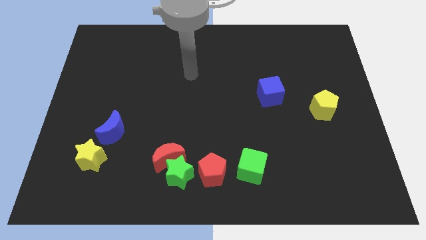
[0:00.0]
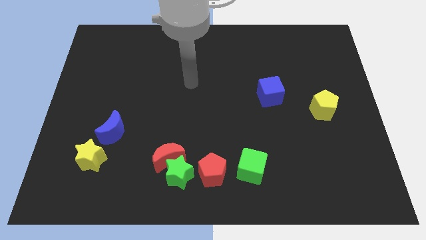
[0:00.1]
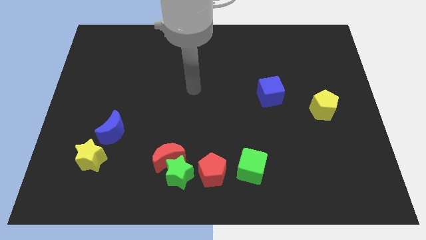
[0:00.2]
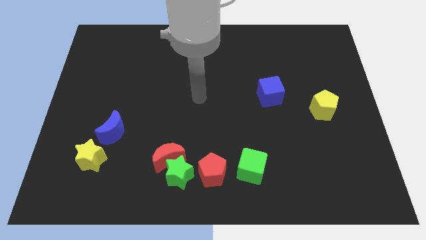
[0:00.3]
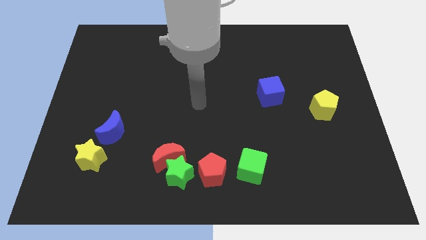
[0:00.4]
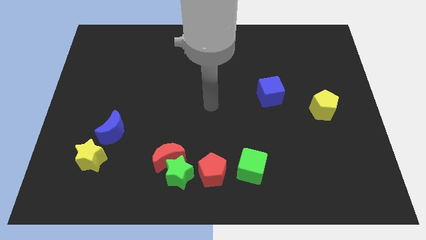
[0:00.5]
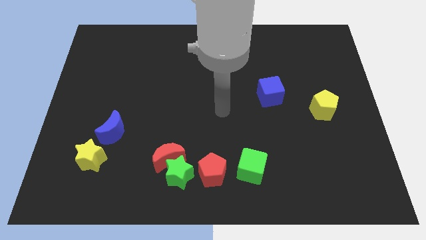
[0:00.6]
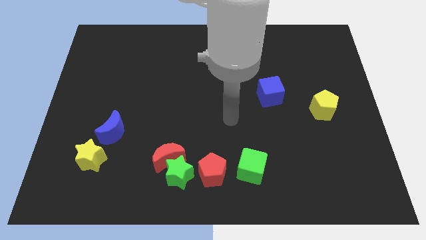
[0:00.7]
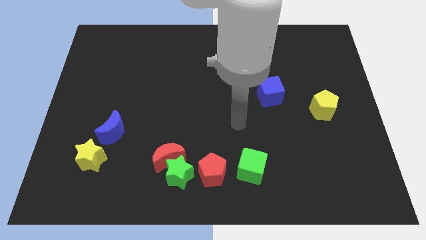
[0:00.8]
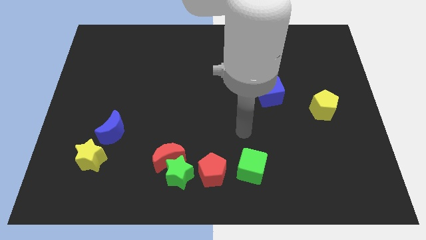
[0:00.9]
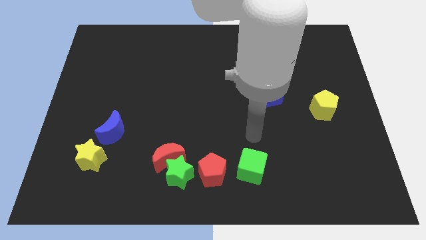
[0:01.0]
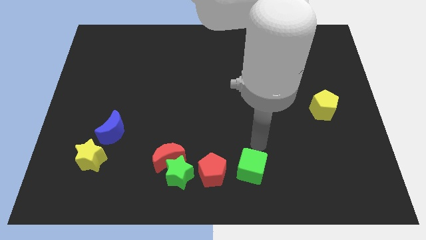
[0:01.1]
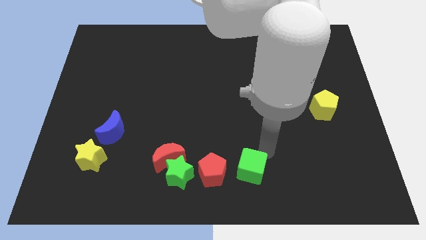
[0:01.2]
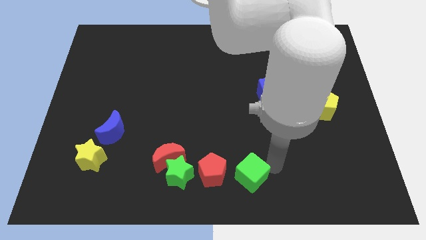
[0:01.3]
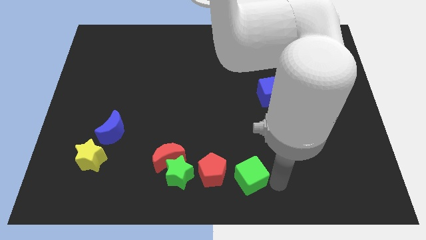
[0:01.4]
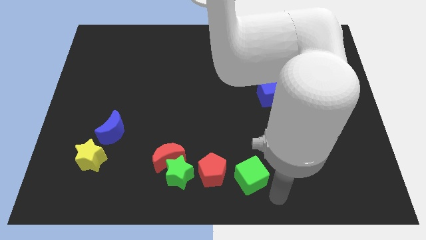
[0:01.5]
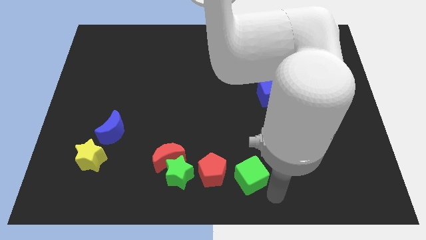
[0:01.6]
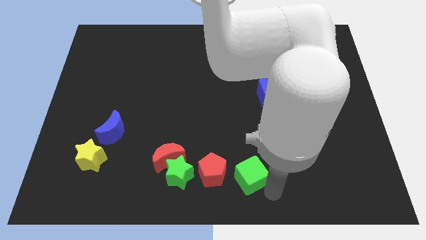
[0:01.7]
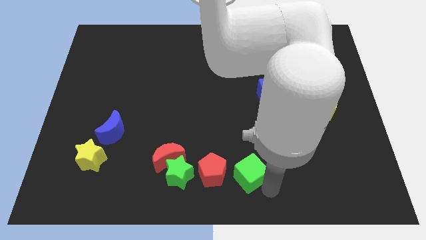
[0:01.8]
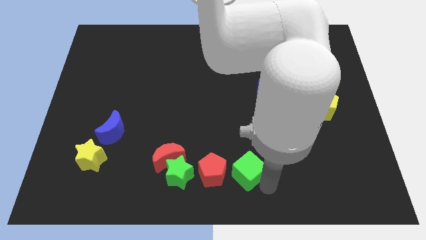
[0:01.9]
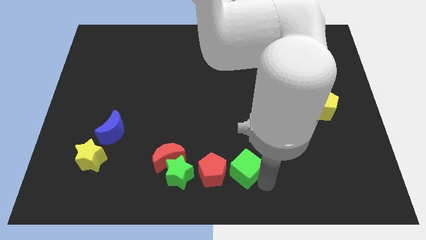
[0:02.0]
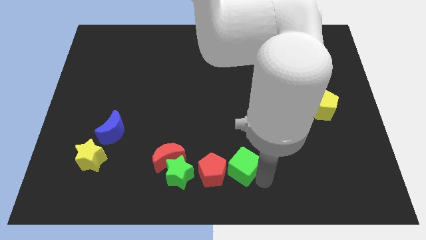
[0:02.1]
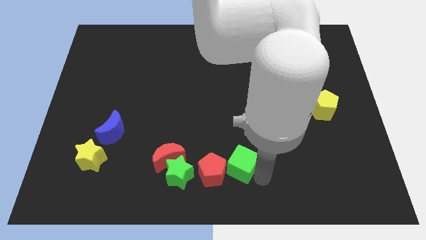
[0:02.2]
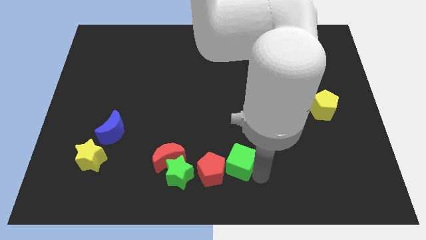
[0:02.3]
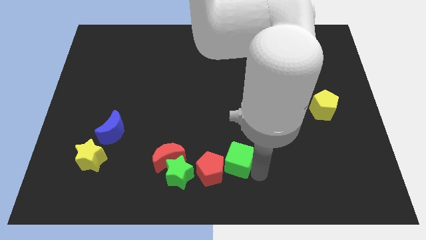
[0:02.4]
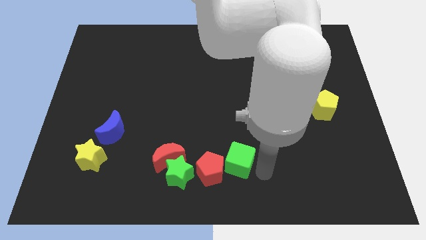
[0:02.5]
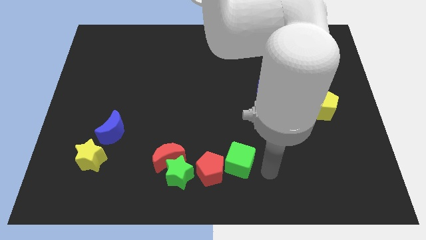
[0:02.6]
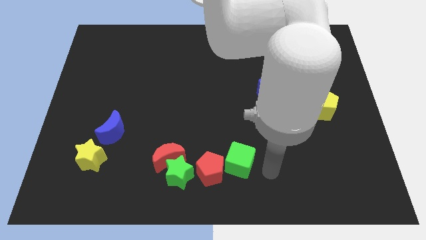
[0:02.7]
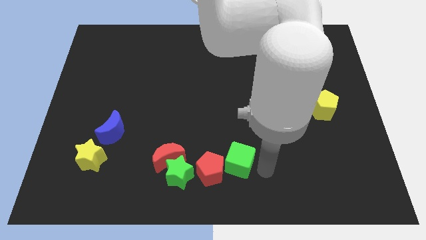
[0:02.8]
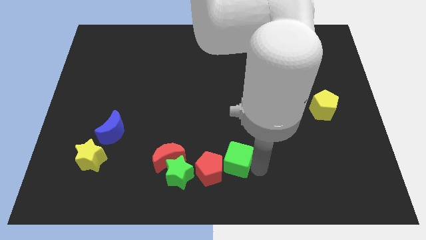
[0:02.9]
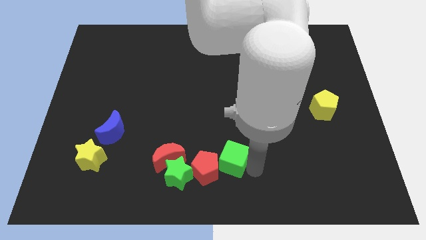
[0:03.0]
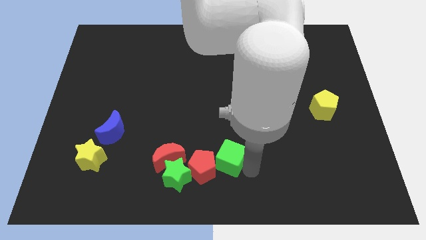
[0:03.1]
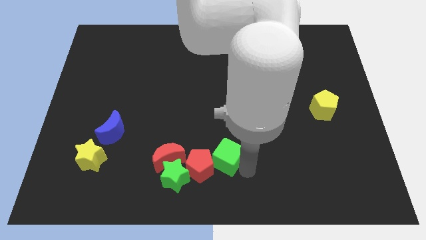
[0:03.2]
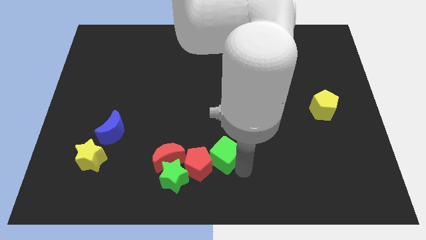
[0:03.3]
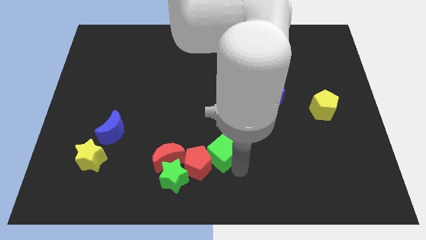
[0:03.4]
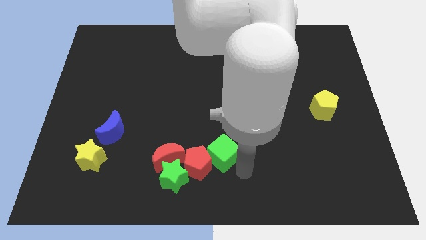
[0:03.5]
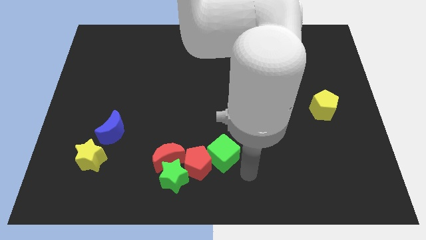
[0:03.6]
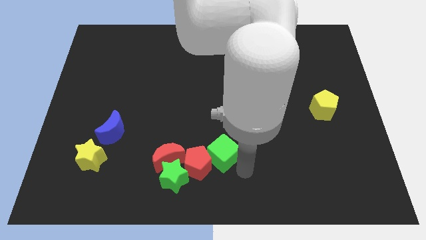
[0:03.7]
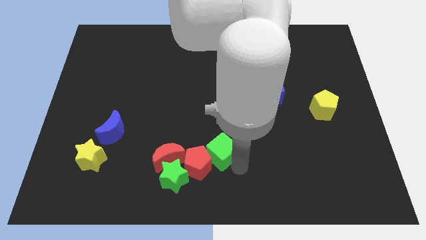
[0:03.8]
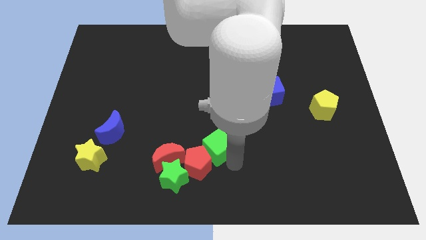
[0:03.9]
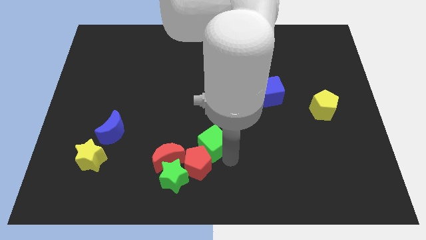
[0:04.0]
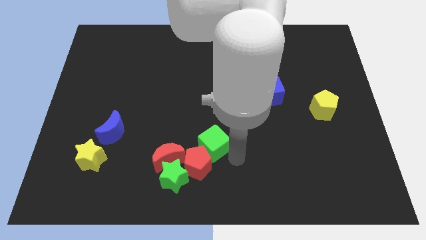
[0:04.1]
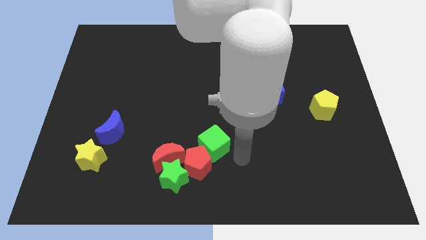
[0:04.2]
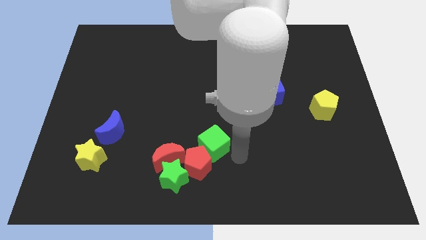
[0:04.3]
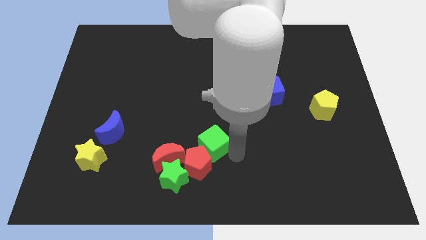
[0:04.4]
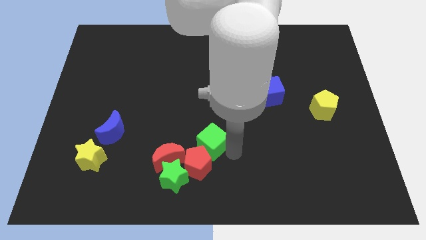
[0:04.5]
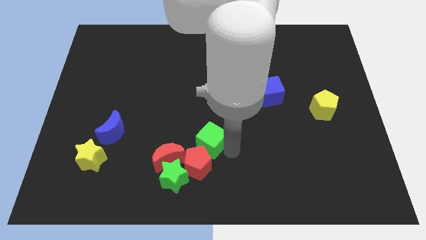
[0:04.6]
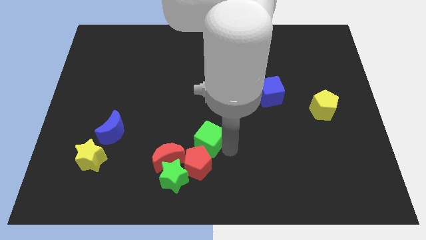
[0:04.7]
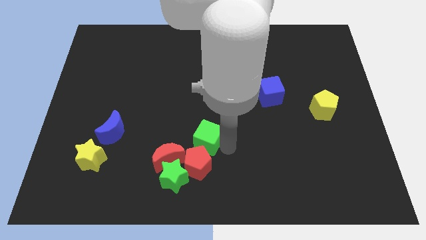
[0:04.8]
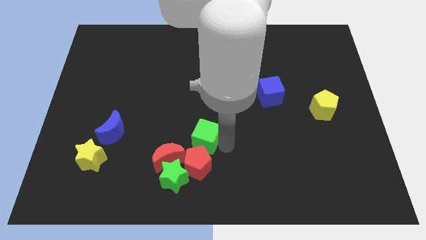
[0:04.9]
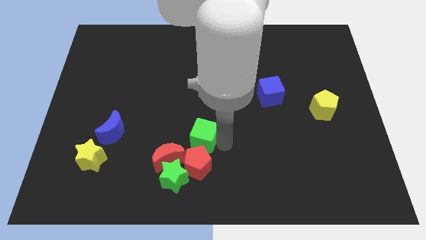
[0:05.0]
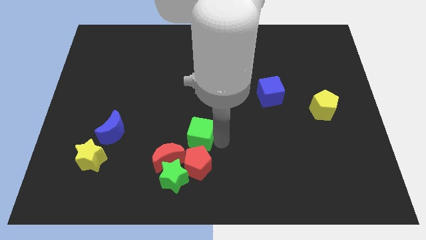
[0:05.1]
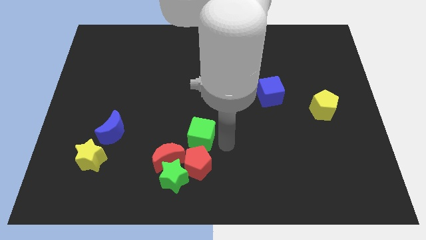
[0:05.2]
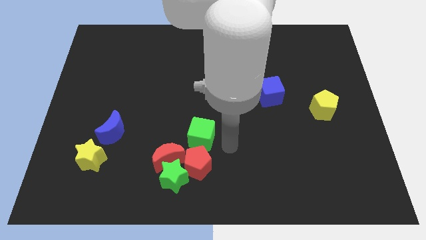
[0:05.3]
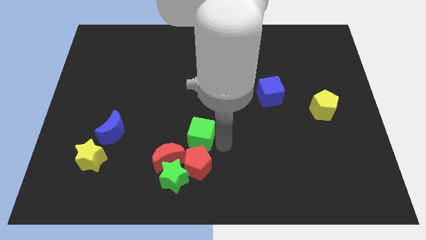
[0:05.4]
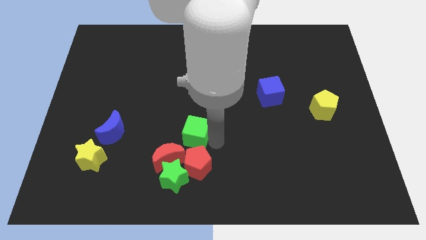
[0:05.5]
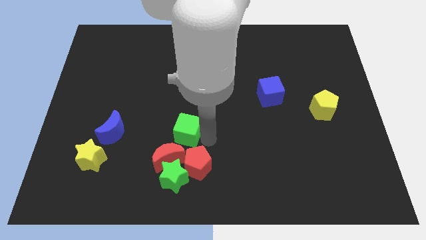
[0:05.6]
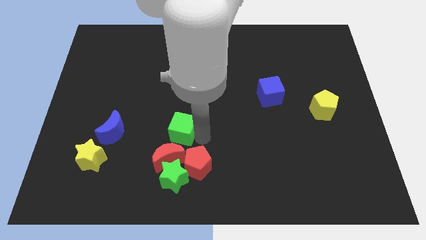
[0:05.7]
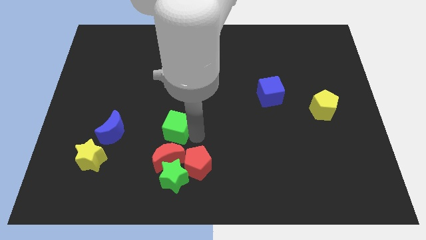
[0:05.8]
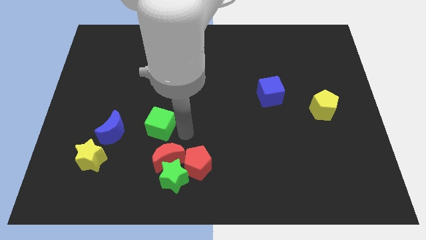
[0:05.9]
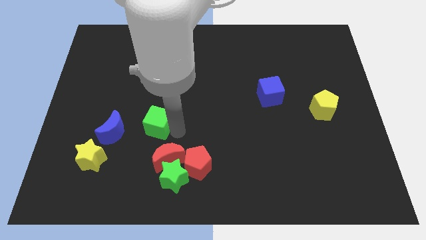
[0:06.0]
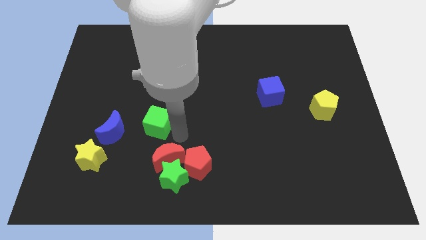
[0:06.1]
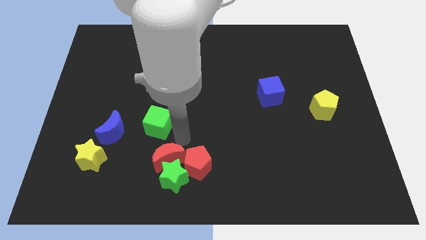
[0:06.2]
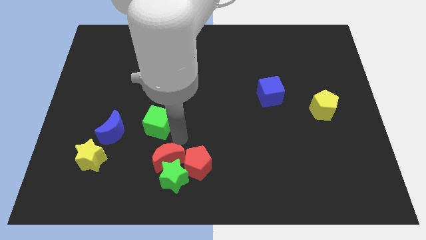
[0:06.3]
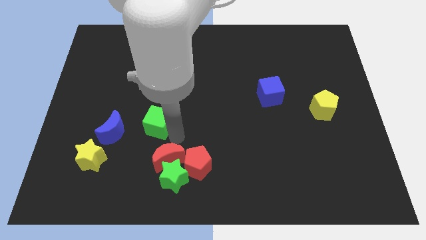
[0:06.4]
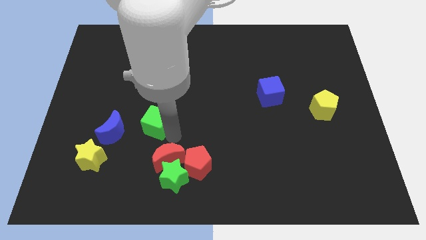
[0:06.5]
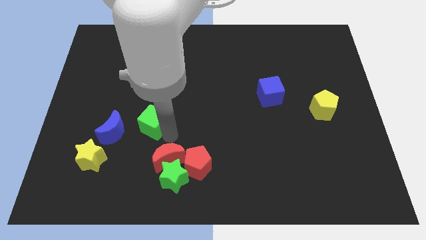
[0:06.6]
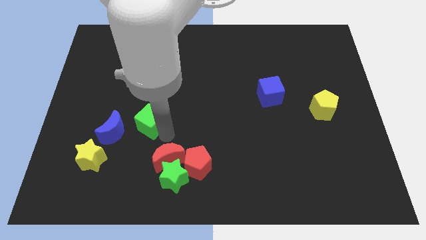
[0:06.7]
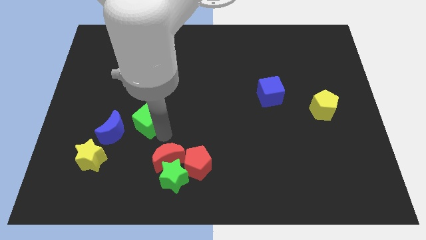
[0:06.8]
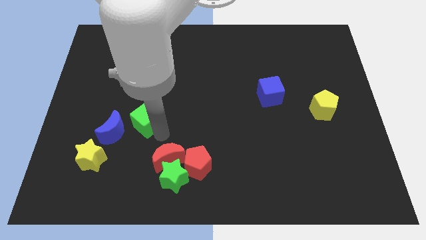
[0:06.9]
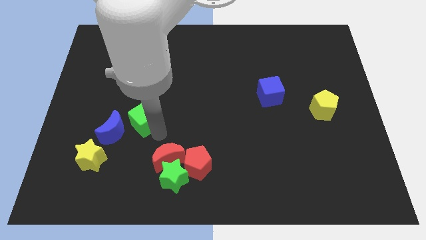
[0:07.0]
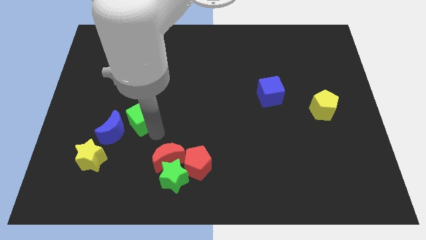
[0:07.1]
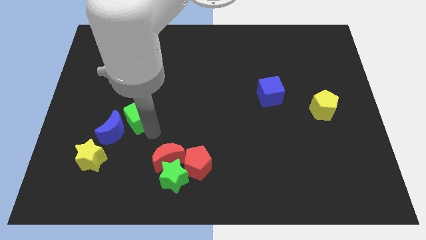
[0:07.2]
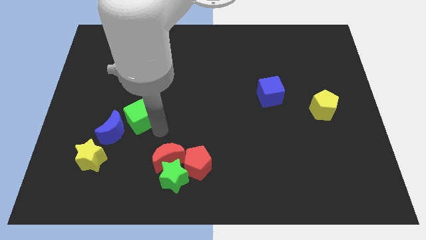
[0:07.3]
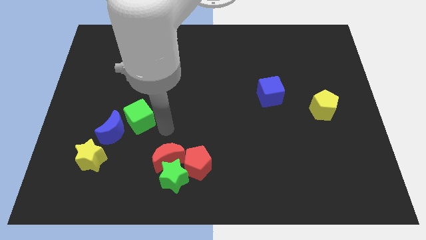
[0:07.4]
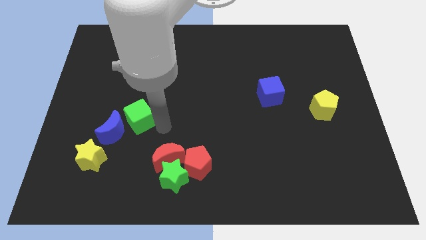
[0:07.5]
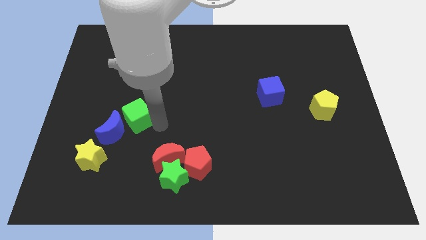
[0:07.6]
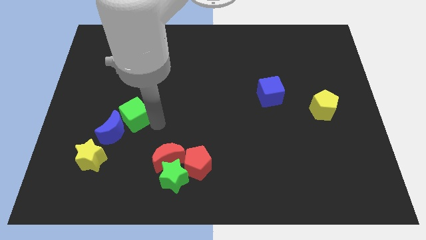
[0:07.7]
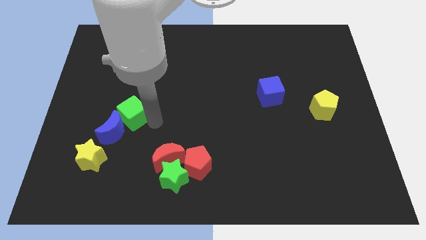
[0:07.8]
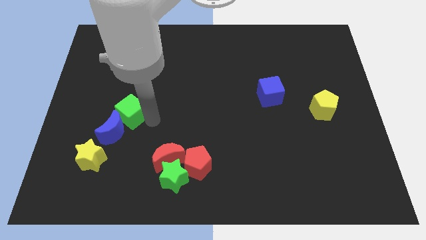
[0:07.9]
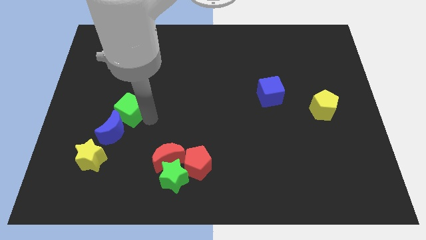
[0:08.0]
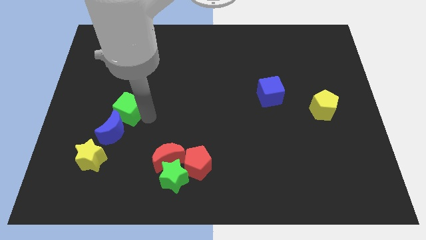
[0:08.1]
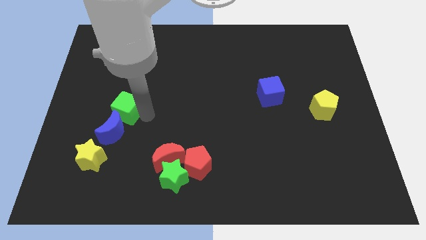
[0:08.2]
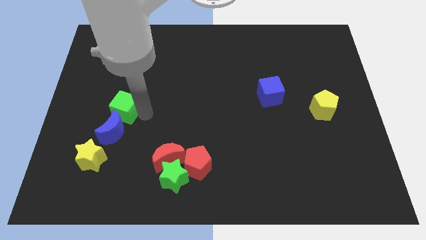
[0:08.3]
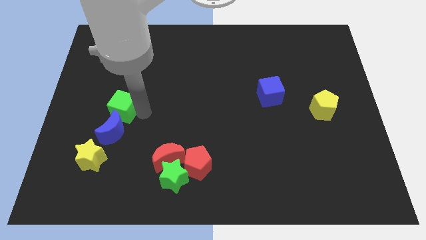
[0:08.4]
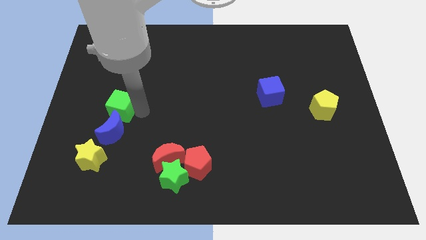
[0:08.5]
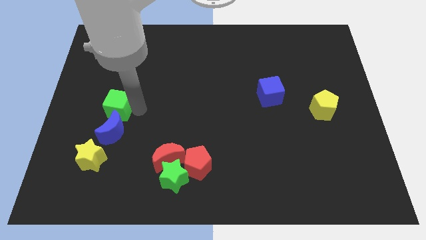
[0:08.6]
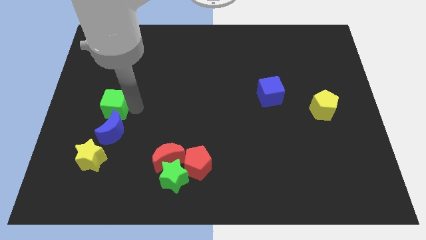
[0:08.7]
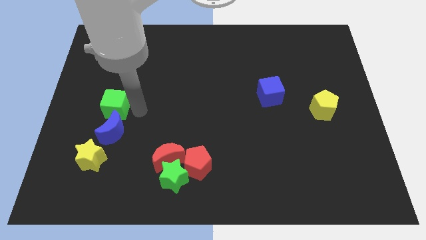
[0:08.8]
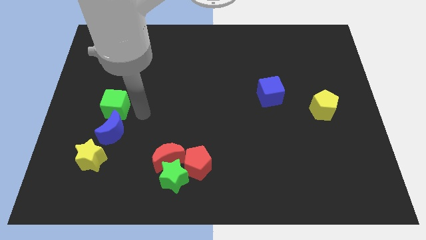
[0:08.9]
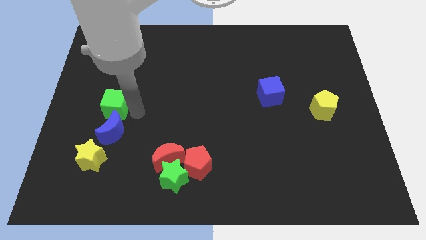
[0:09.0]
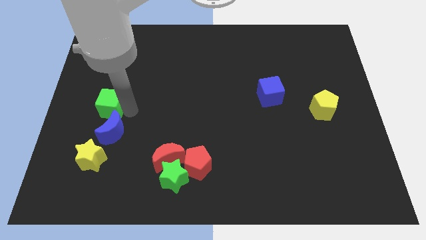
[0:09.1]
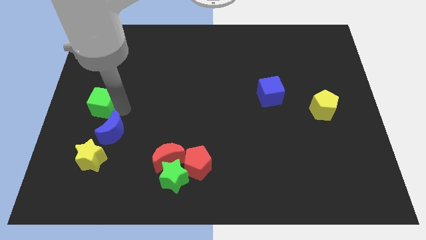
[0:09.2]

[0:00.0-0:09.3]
push the green cube to the left side of the board
